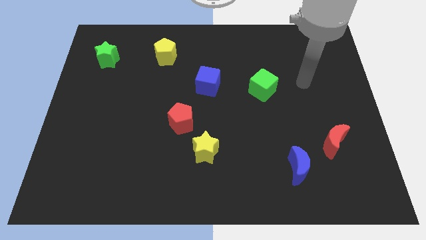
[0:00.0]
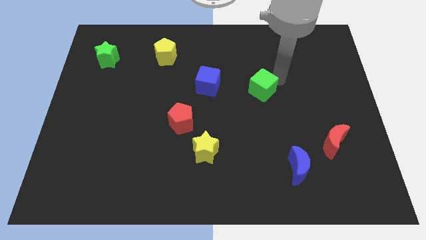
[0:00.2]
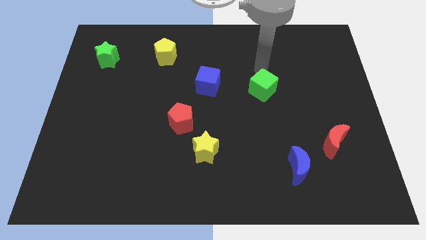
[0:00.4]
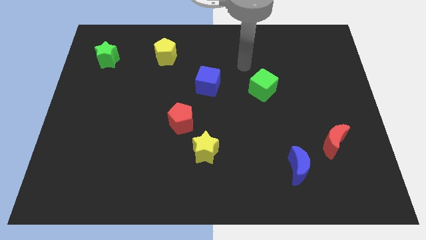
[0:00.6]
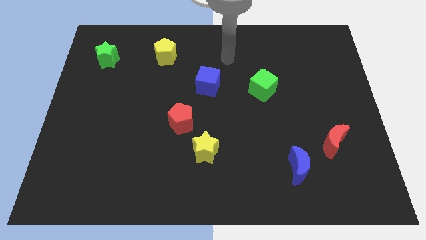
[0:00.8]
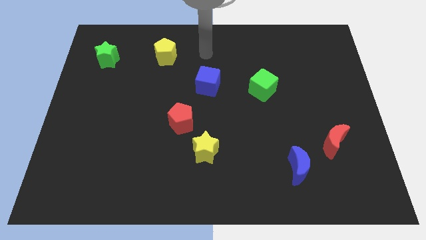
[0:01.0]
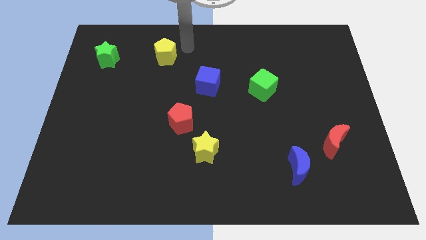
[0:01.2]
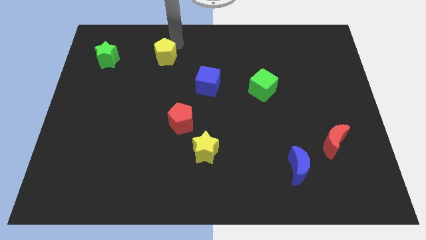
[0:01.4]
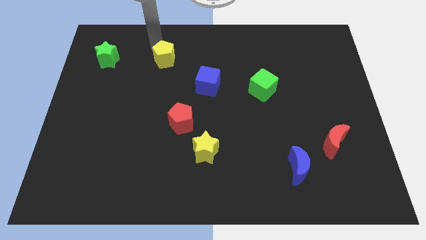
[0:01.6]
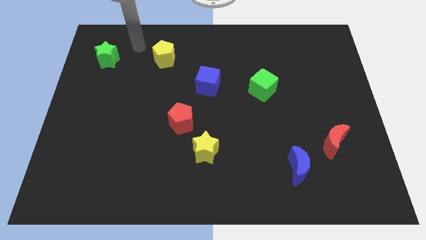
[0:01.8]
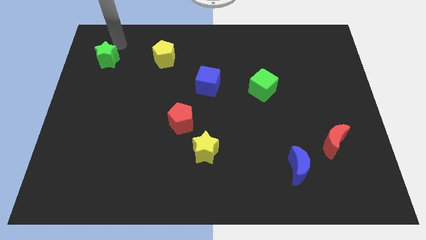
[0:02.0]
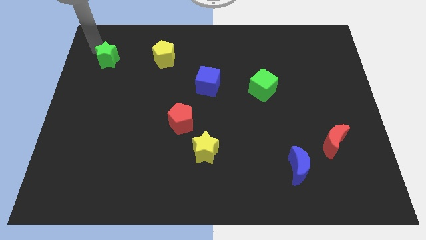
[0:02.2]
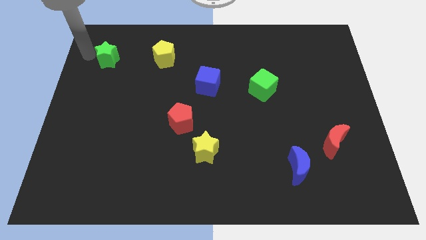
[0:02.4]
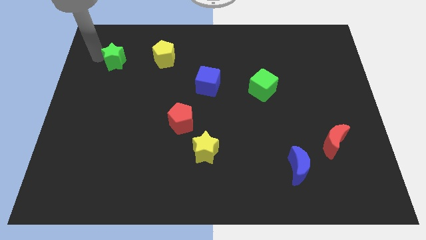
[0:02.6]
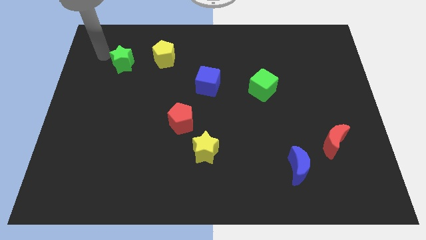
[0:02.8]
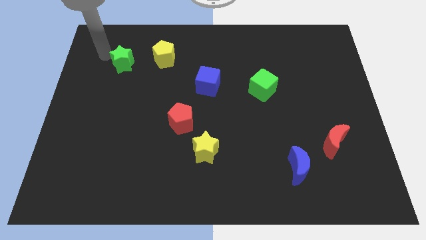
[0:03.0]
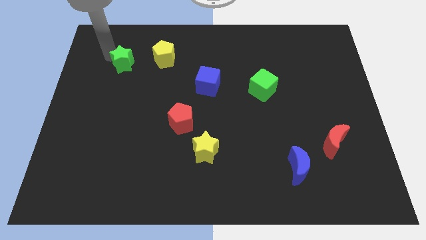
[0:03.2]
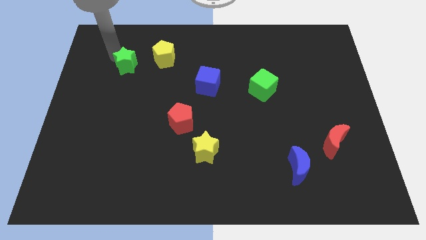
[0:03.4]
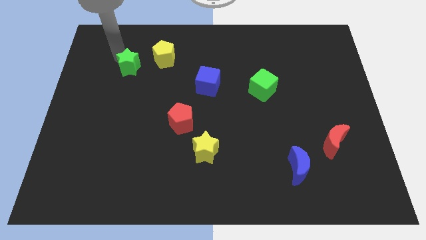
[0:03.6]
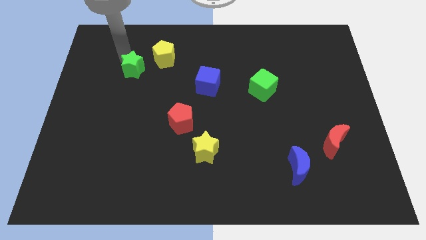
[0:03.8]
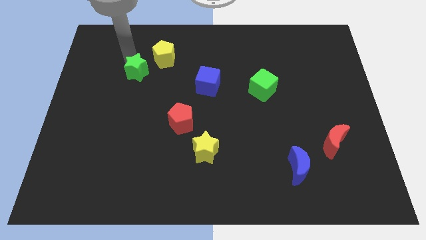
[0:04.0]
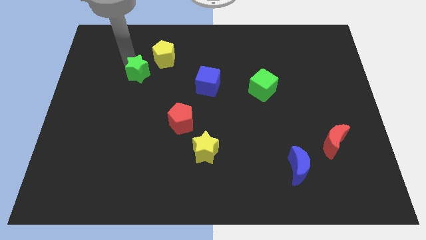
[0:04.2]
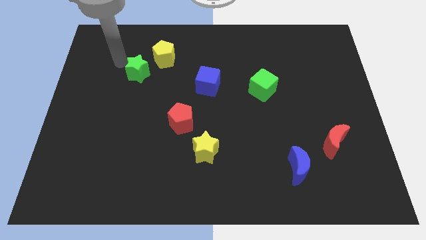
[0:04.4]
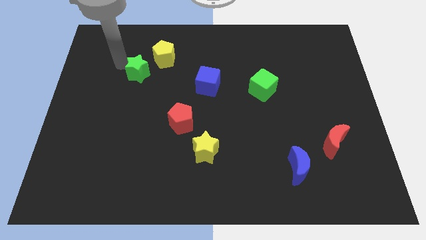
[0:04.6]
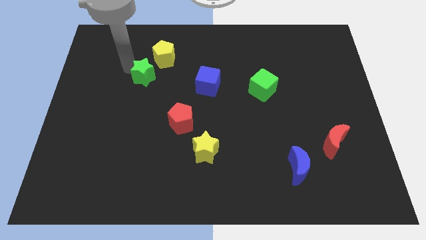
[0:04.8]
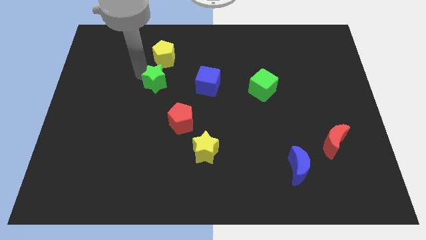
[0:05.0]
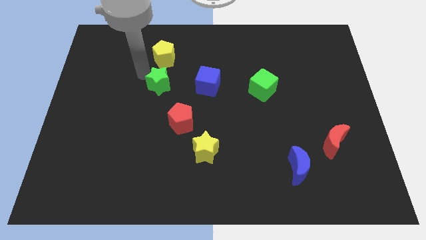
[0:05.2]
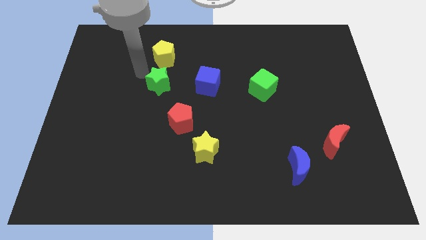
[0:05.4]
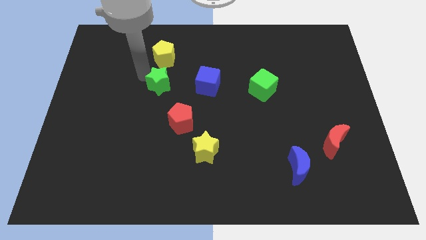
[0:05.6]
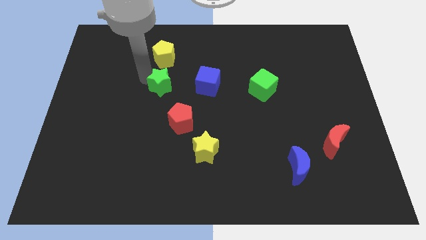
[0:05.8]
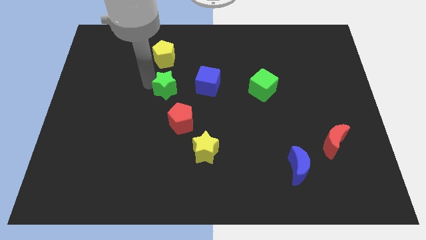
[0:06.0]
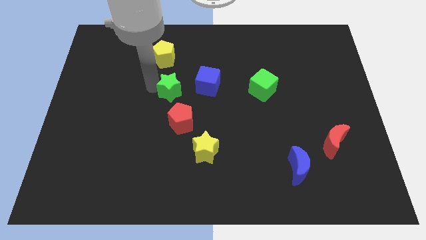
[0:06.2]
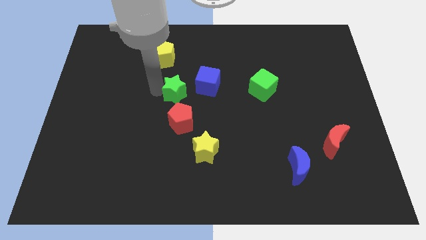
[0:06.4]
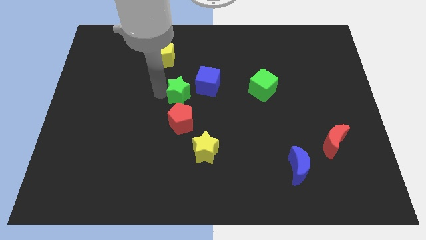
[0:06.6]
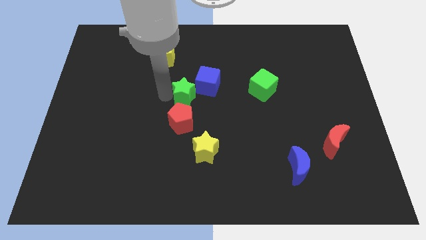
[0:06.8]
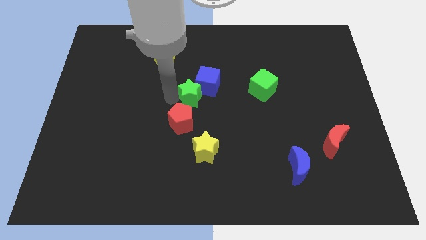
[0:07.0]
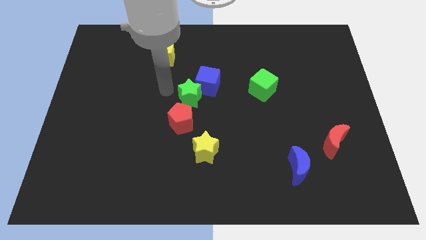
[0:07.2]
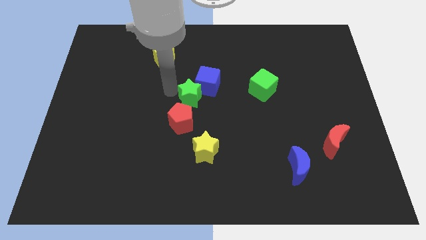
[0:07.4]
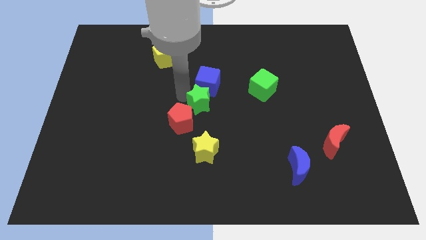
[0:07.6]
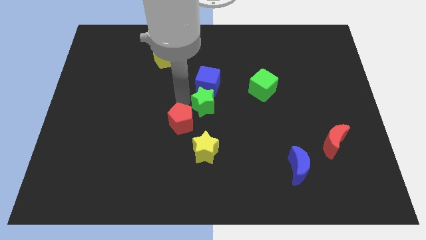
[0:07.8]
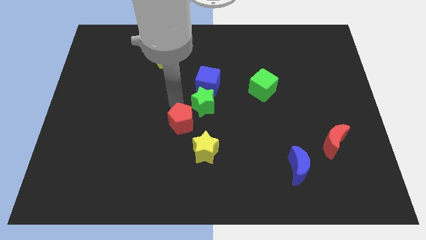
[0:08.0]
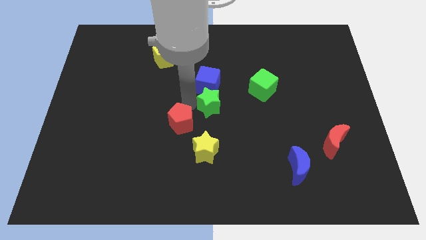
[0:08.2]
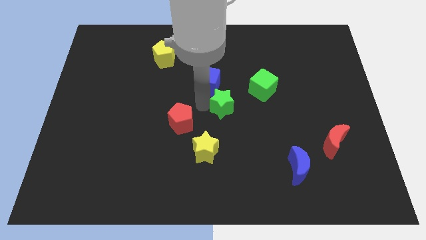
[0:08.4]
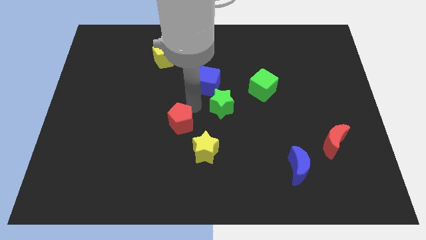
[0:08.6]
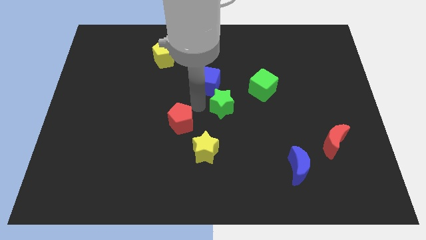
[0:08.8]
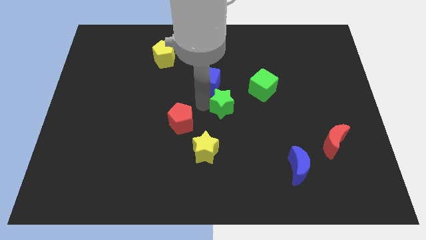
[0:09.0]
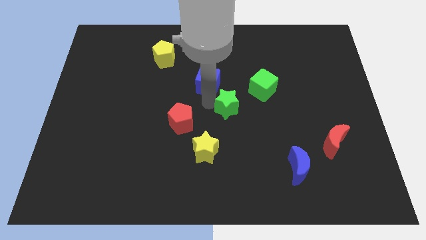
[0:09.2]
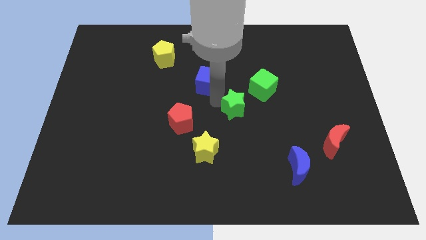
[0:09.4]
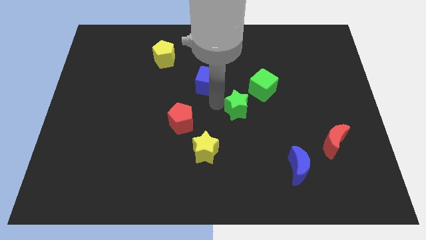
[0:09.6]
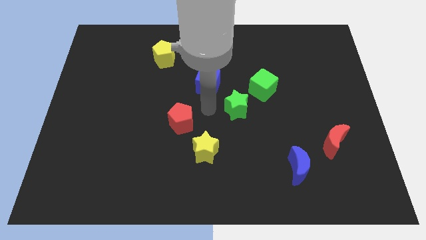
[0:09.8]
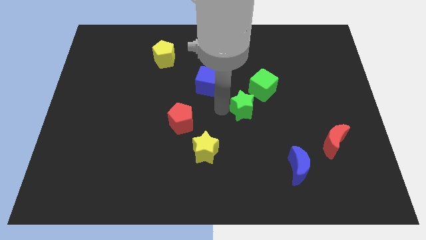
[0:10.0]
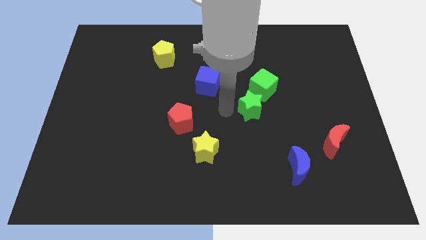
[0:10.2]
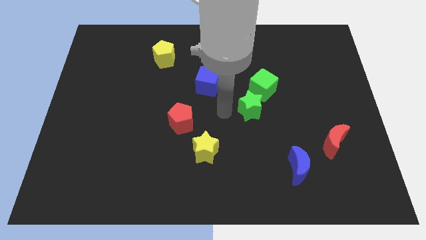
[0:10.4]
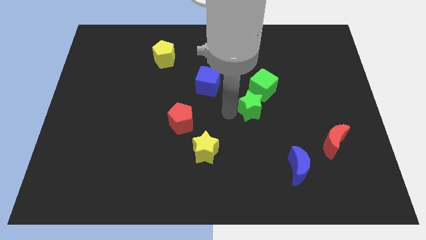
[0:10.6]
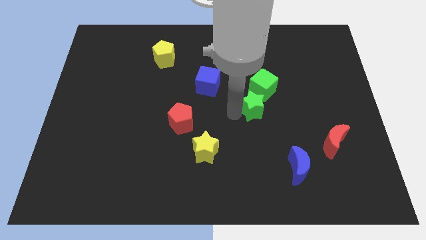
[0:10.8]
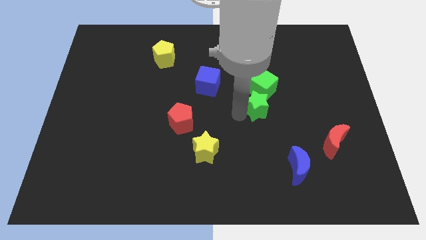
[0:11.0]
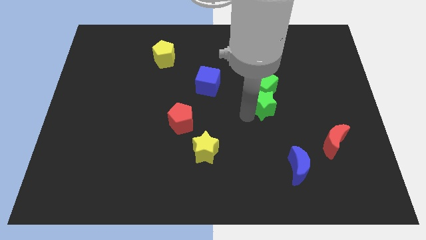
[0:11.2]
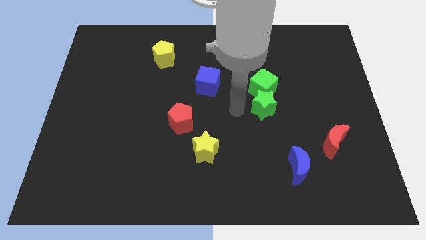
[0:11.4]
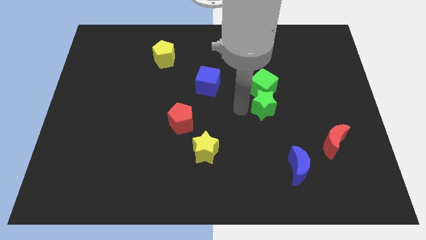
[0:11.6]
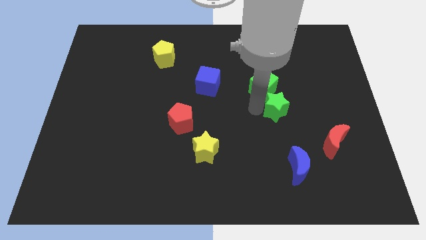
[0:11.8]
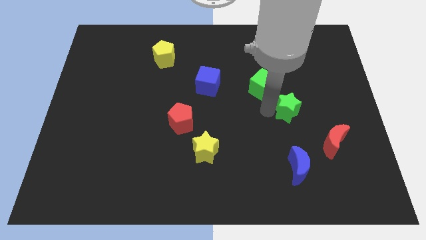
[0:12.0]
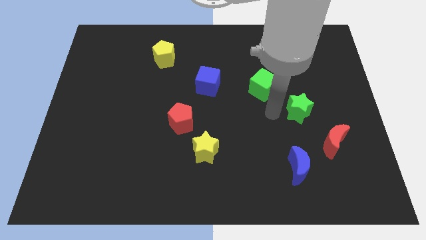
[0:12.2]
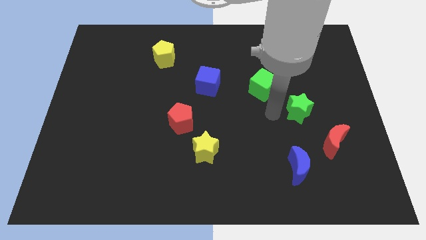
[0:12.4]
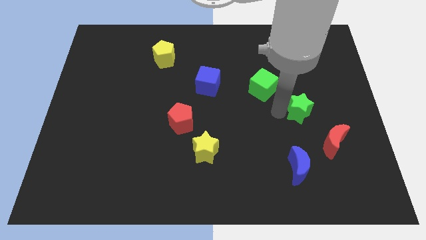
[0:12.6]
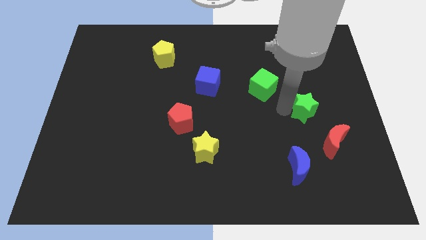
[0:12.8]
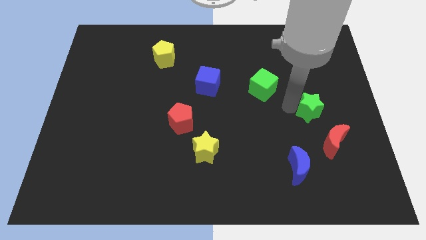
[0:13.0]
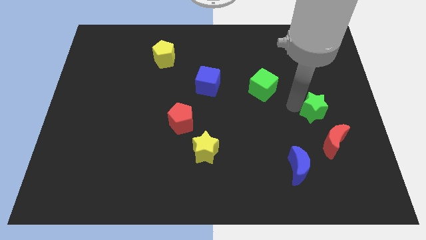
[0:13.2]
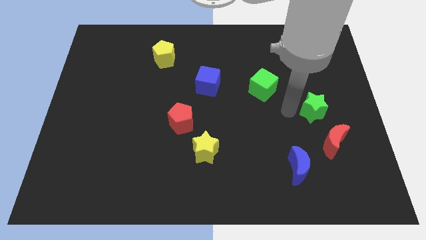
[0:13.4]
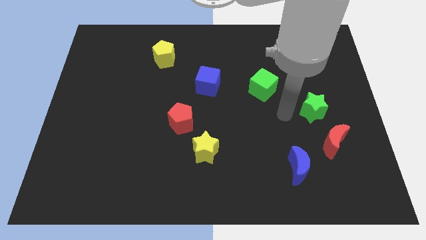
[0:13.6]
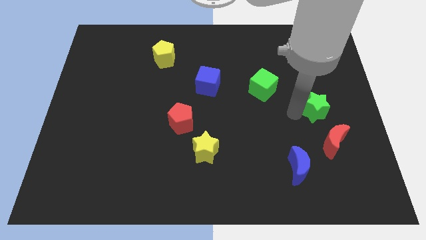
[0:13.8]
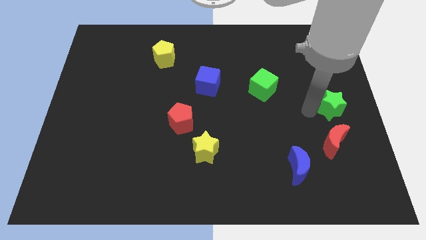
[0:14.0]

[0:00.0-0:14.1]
slide the green star to the right side

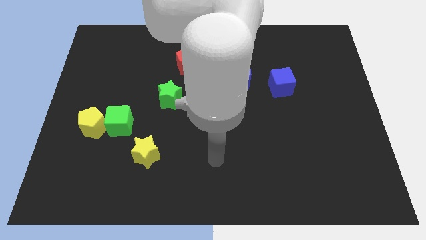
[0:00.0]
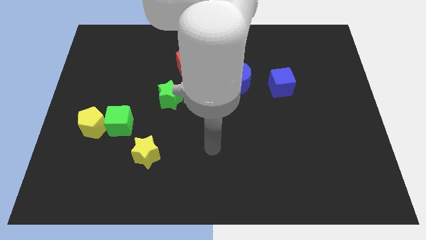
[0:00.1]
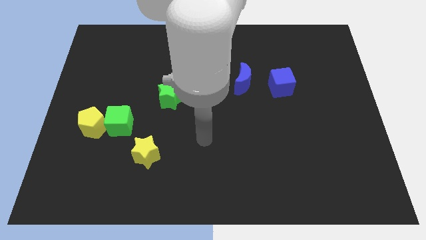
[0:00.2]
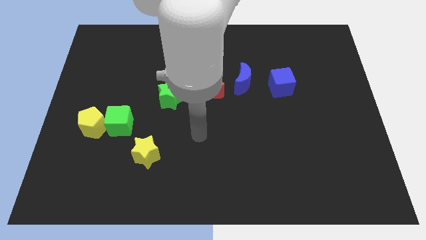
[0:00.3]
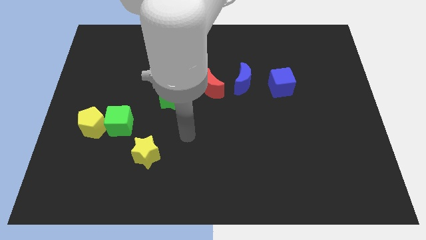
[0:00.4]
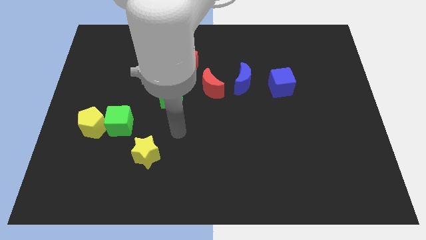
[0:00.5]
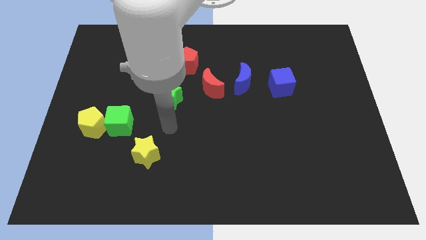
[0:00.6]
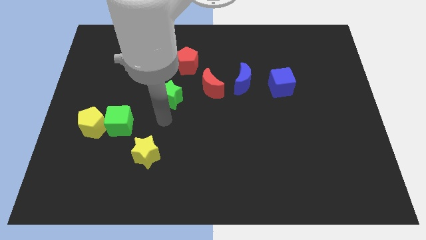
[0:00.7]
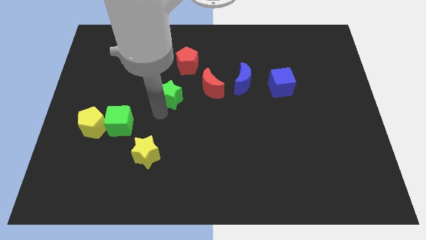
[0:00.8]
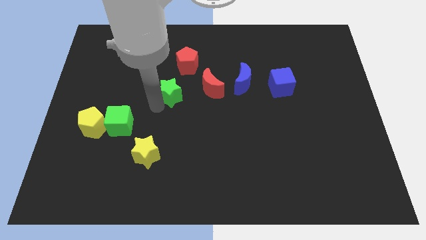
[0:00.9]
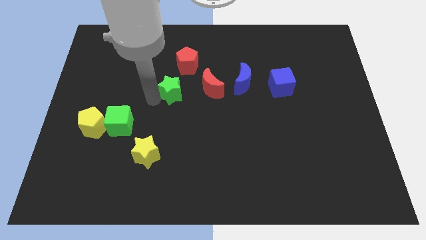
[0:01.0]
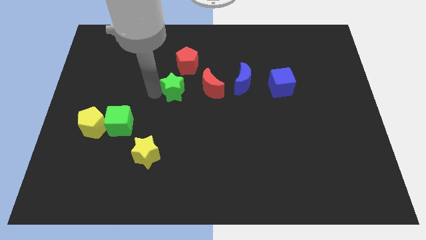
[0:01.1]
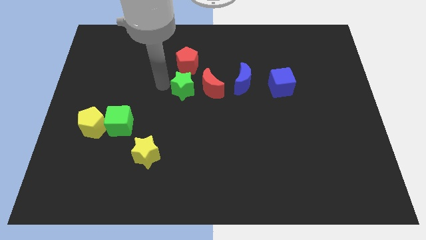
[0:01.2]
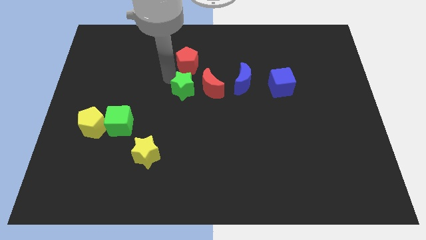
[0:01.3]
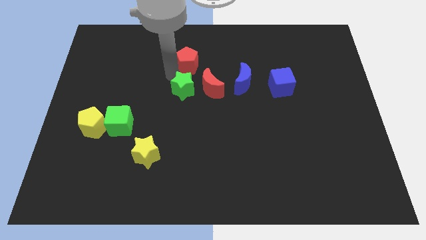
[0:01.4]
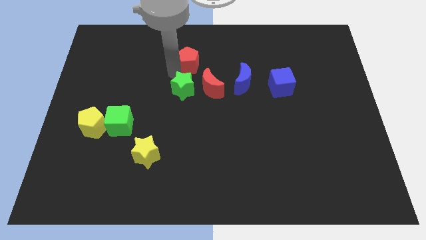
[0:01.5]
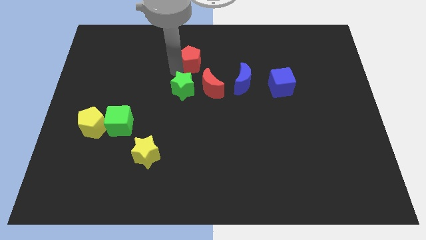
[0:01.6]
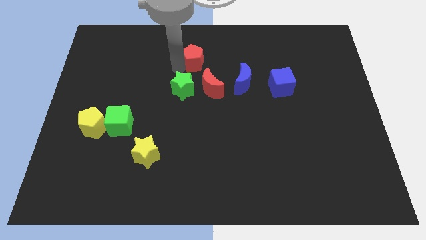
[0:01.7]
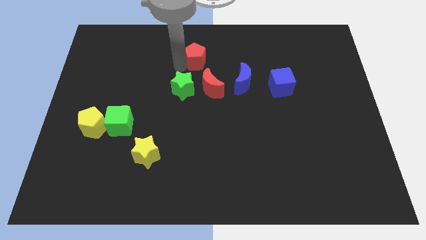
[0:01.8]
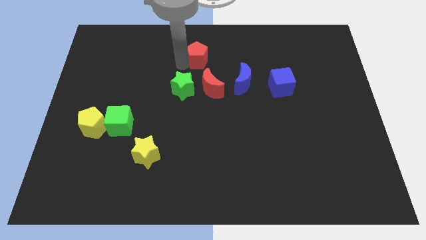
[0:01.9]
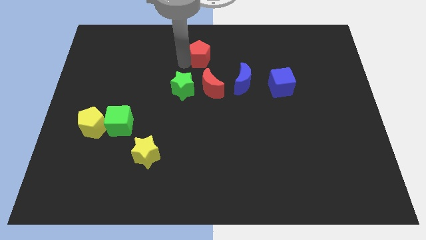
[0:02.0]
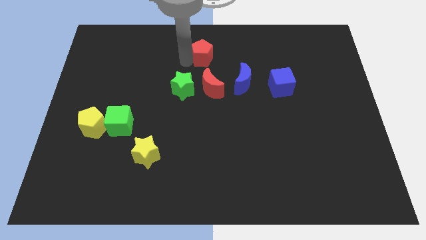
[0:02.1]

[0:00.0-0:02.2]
move the red pentagon to the top
